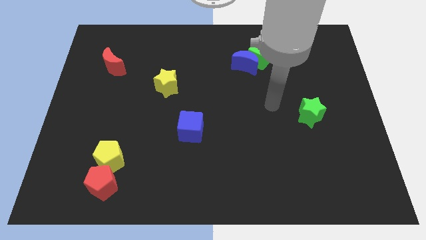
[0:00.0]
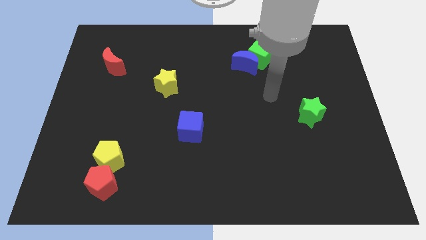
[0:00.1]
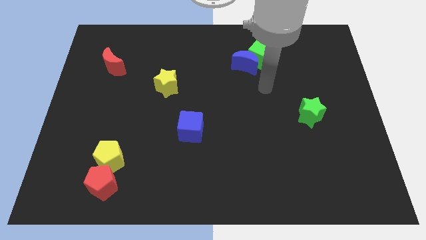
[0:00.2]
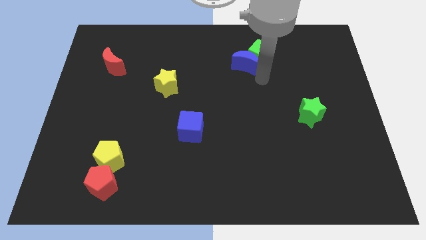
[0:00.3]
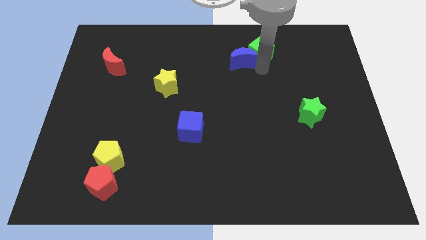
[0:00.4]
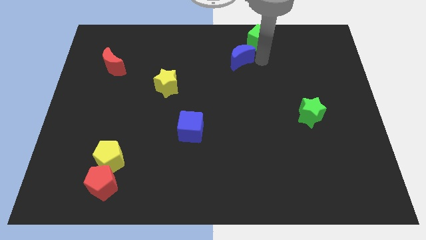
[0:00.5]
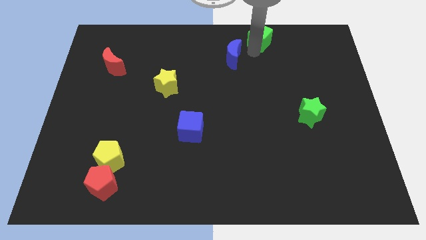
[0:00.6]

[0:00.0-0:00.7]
separate the blue moon from the green cube

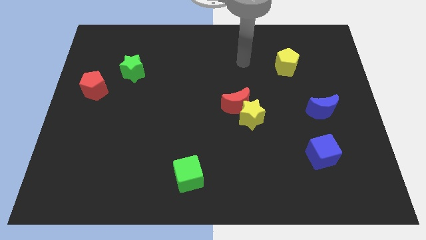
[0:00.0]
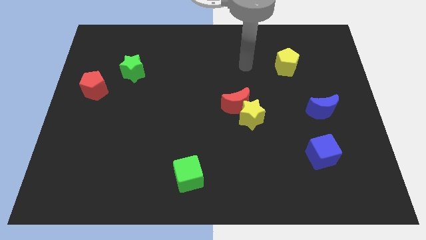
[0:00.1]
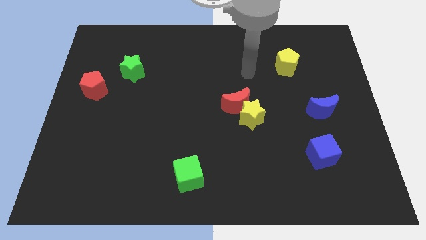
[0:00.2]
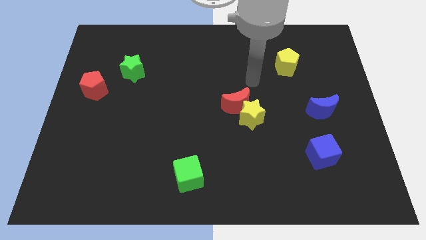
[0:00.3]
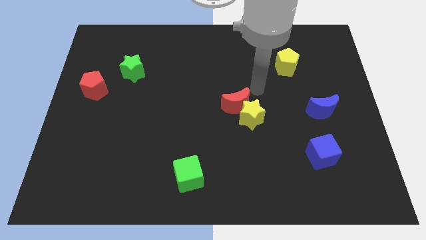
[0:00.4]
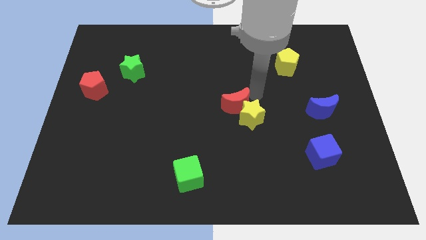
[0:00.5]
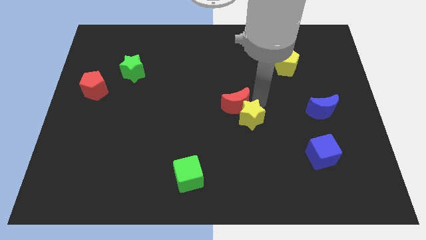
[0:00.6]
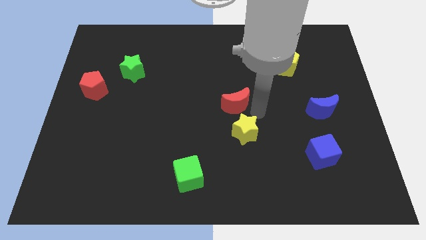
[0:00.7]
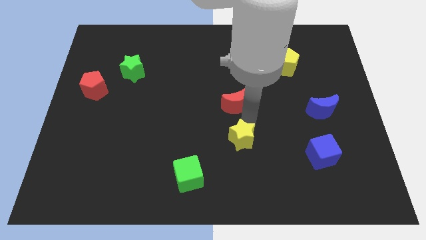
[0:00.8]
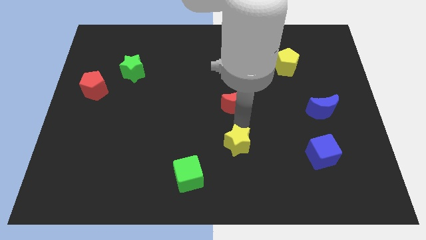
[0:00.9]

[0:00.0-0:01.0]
separate the red moon from the yellow star

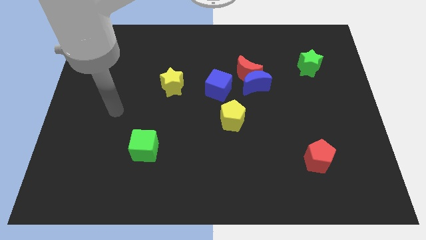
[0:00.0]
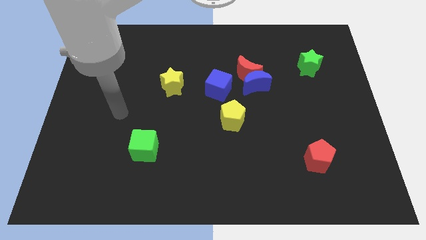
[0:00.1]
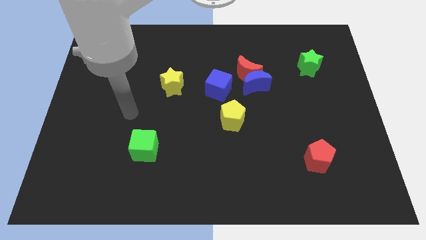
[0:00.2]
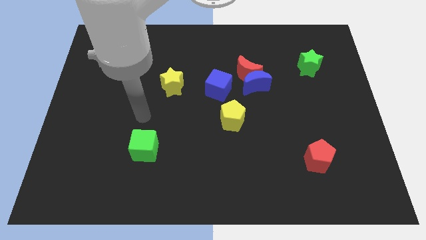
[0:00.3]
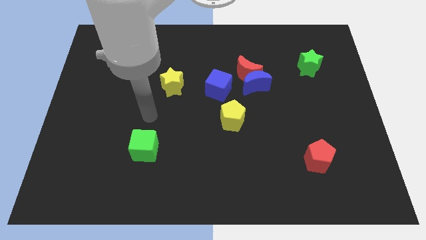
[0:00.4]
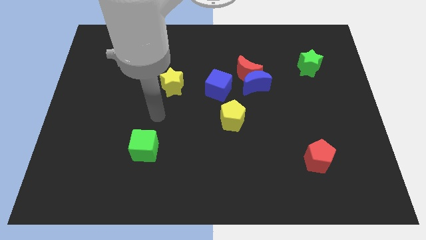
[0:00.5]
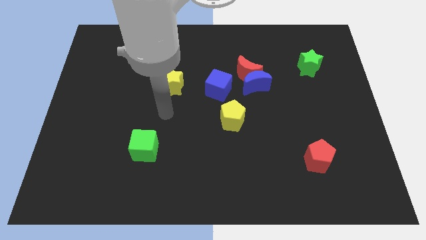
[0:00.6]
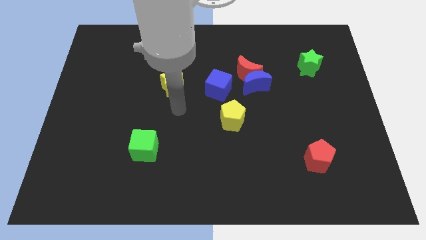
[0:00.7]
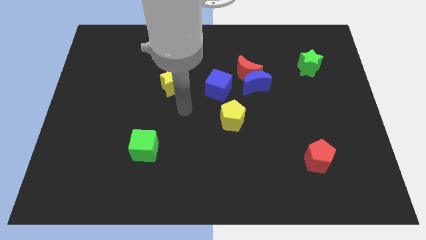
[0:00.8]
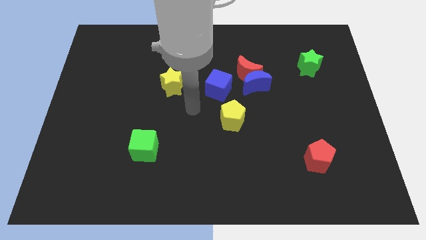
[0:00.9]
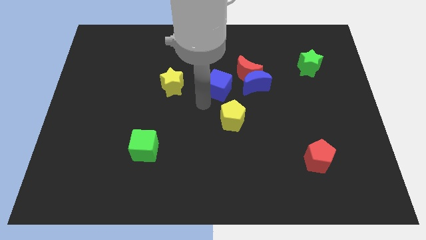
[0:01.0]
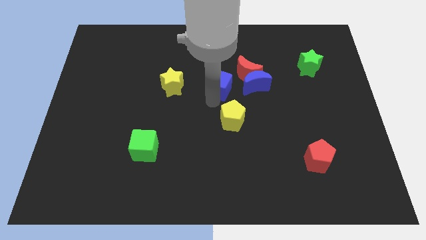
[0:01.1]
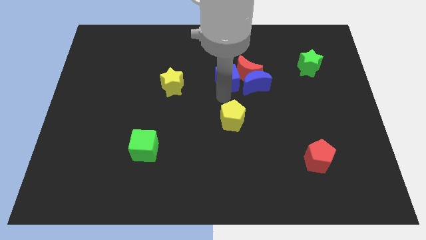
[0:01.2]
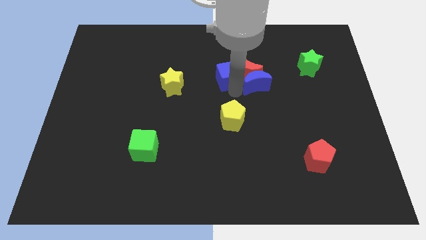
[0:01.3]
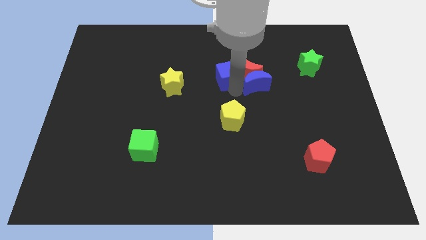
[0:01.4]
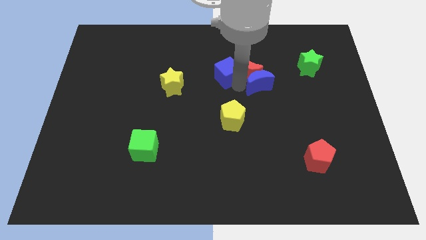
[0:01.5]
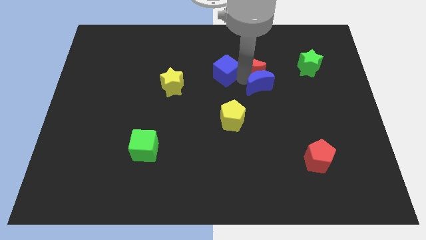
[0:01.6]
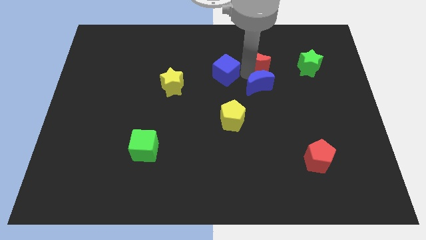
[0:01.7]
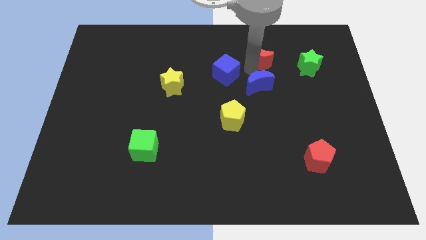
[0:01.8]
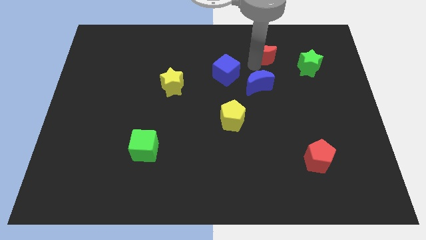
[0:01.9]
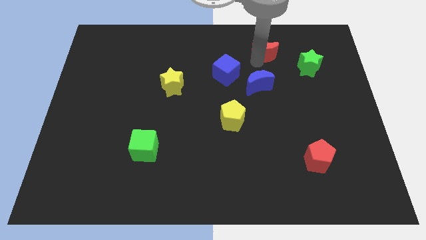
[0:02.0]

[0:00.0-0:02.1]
move the red moon away from the blue moon and blue cube

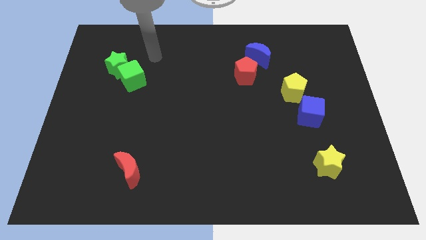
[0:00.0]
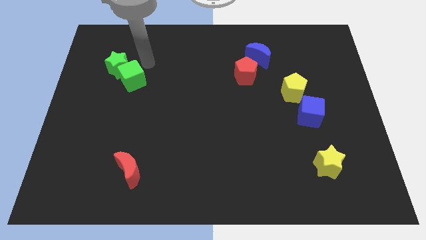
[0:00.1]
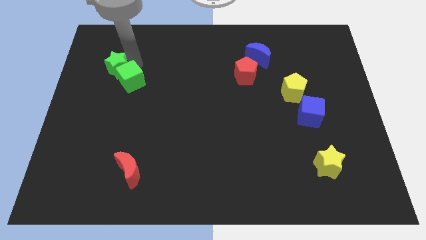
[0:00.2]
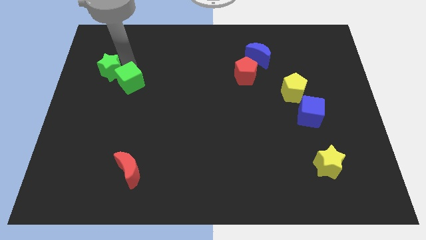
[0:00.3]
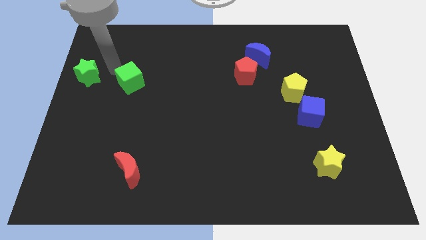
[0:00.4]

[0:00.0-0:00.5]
separate the green cube from the green star

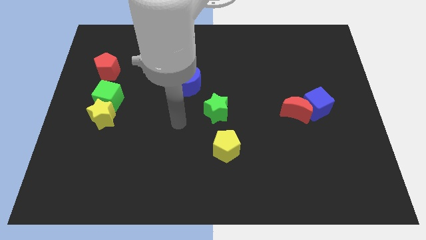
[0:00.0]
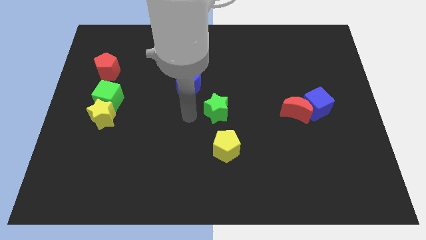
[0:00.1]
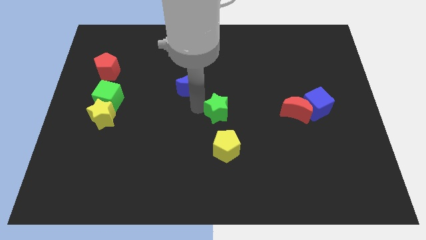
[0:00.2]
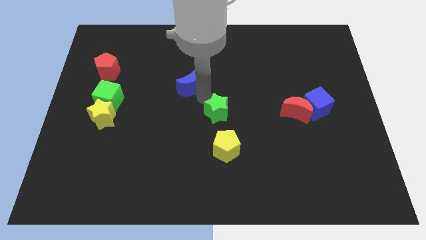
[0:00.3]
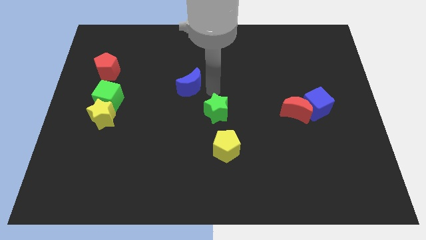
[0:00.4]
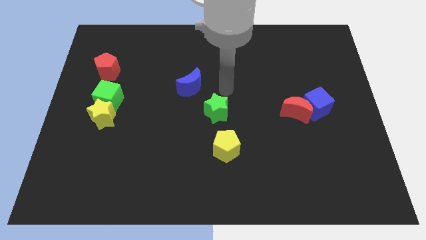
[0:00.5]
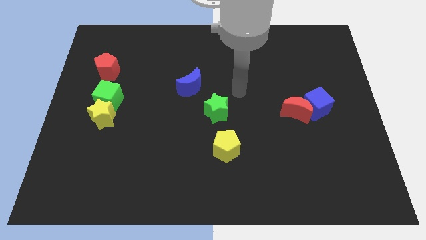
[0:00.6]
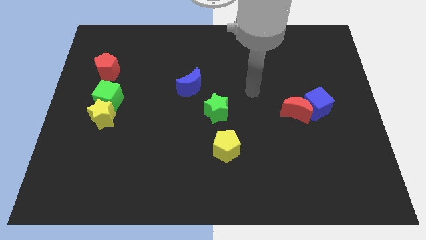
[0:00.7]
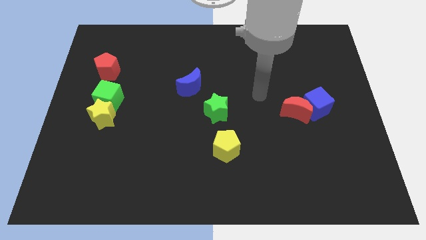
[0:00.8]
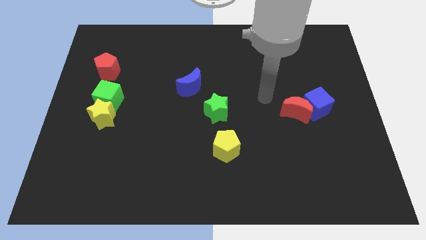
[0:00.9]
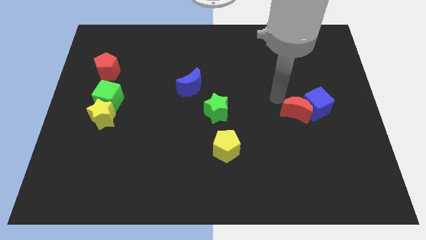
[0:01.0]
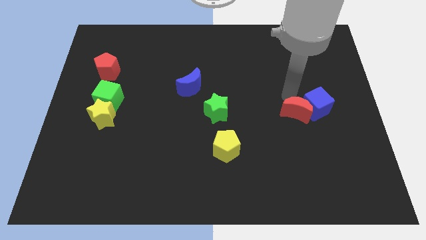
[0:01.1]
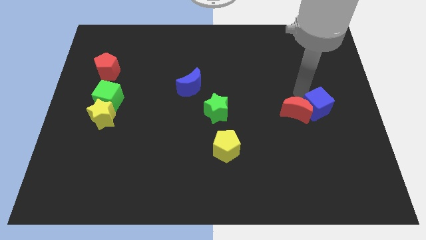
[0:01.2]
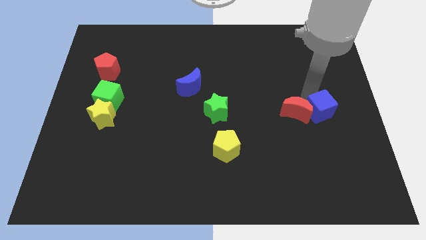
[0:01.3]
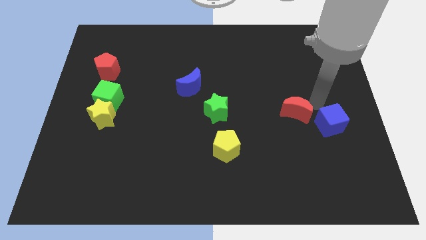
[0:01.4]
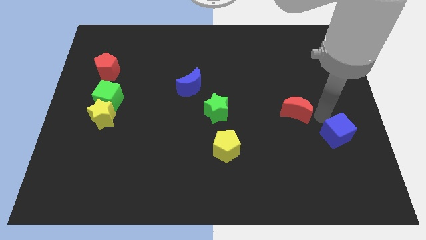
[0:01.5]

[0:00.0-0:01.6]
pull the red moon apart from the blue cube

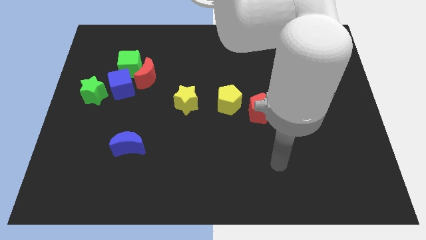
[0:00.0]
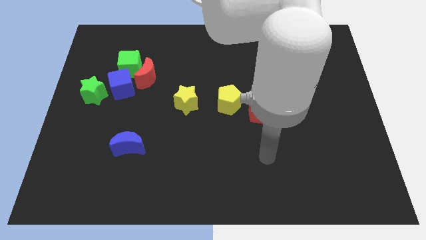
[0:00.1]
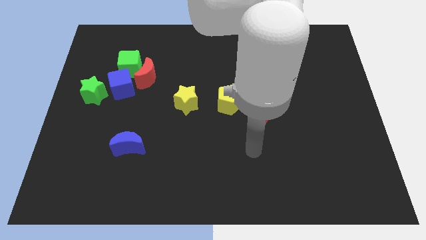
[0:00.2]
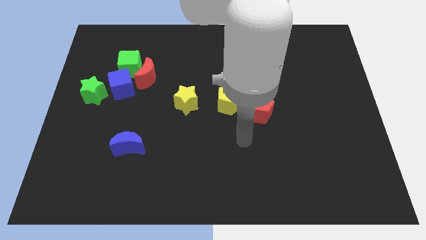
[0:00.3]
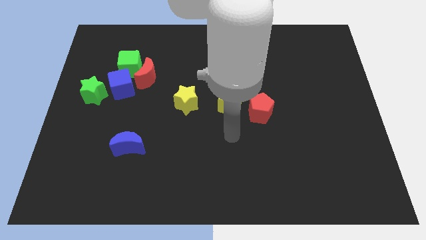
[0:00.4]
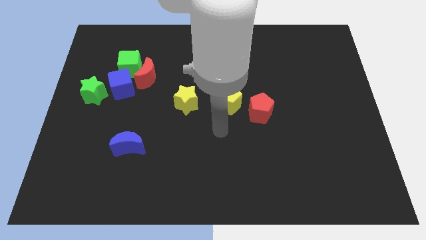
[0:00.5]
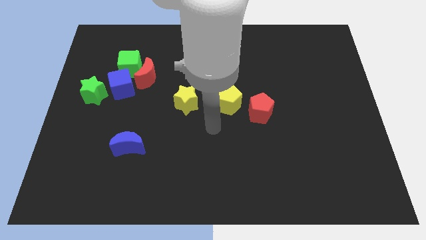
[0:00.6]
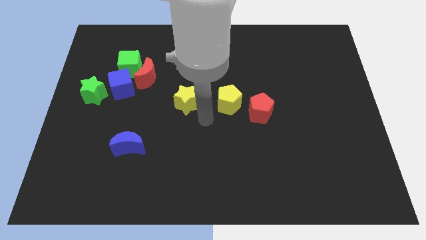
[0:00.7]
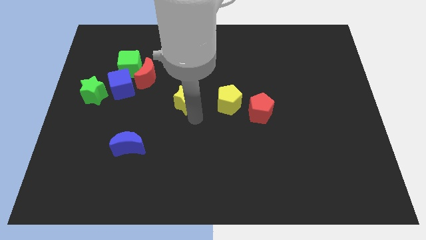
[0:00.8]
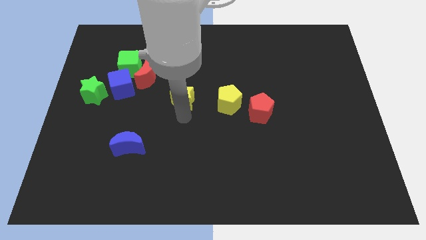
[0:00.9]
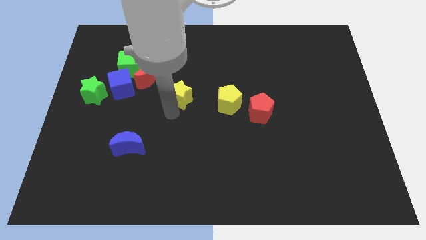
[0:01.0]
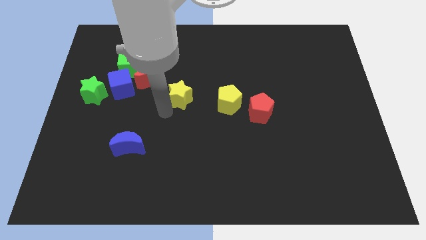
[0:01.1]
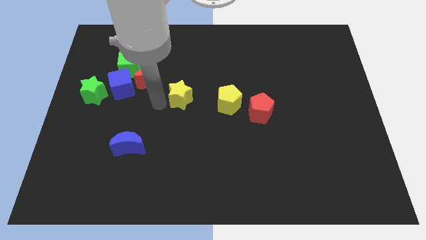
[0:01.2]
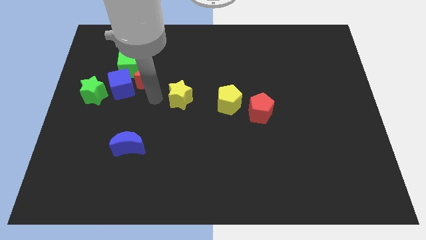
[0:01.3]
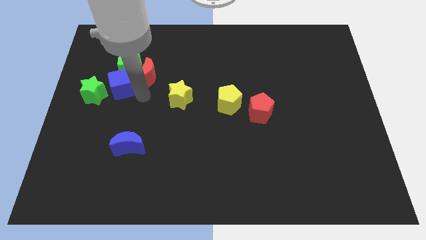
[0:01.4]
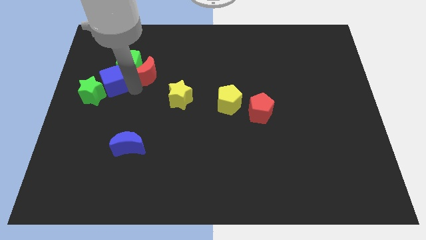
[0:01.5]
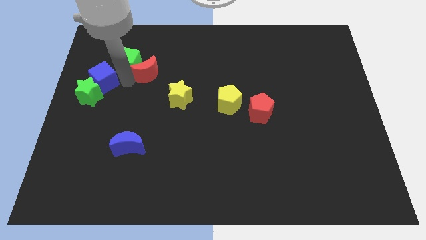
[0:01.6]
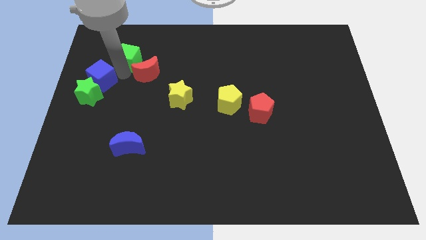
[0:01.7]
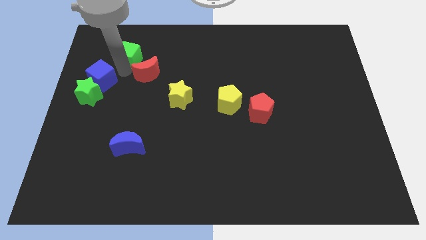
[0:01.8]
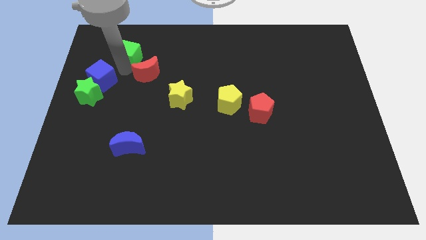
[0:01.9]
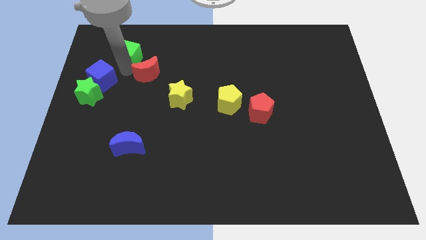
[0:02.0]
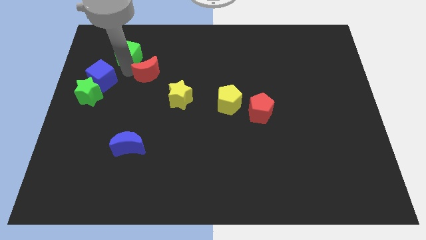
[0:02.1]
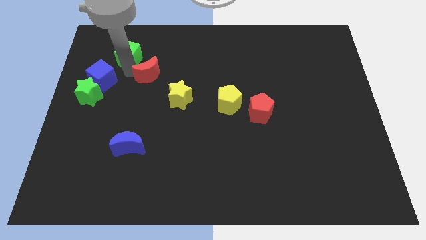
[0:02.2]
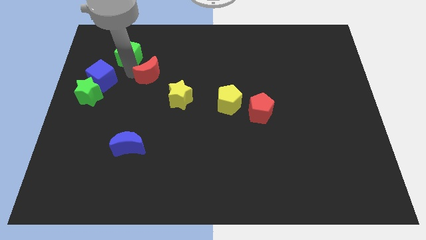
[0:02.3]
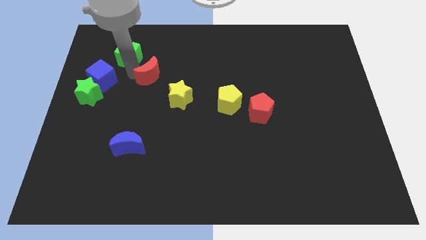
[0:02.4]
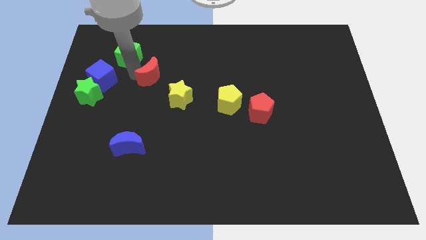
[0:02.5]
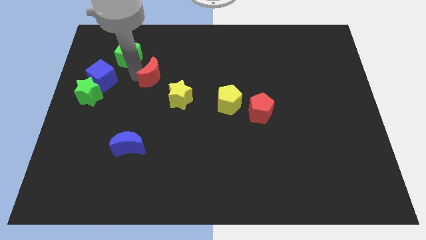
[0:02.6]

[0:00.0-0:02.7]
pull the red moon apart from the green cube and blue cube

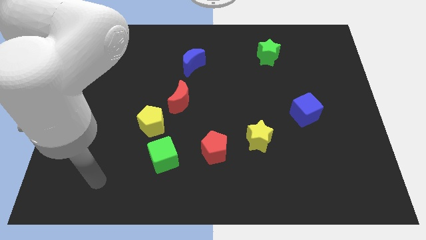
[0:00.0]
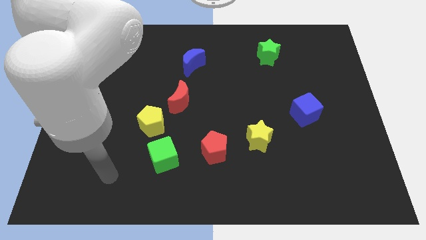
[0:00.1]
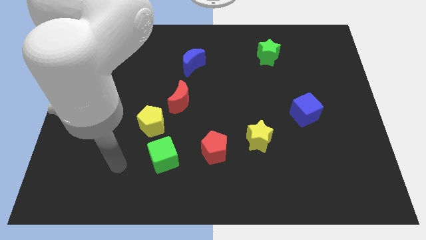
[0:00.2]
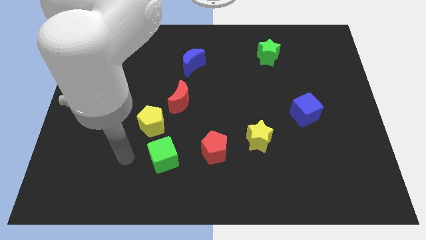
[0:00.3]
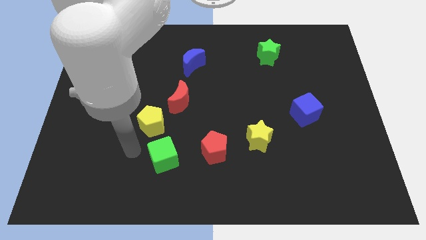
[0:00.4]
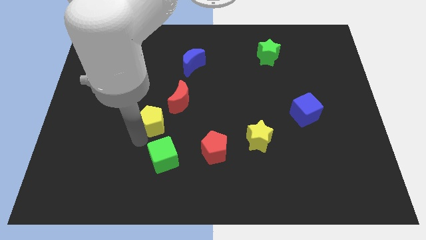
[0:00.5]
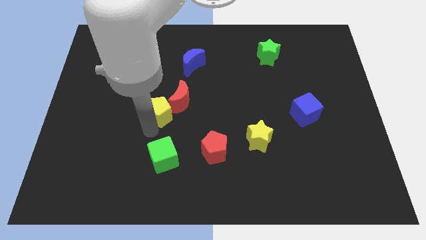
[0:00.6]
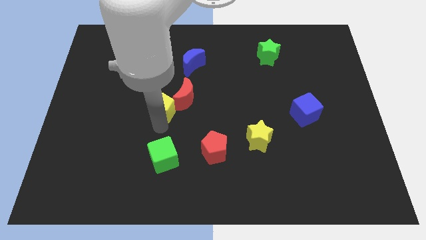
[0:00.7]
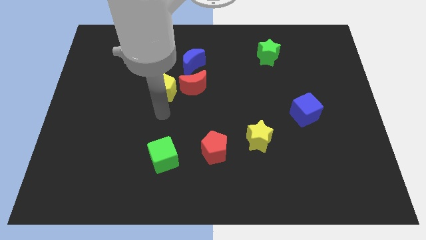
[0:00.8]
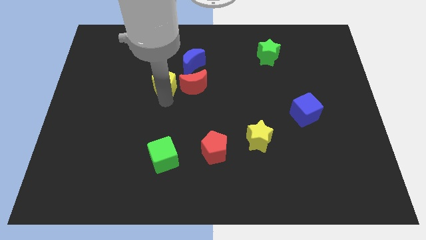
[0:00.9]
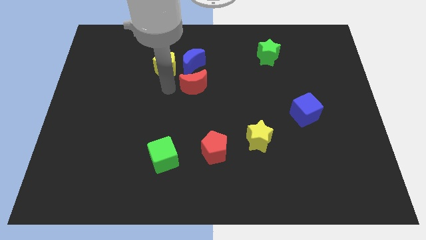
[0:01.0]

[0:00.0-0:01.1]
pull the red moon apart from the yellow pentagon
